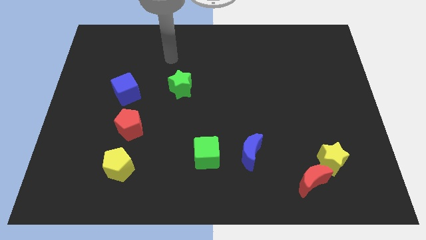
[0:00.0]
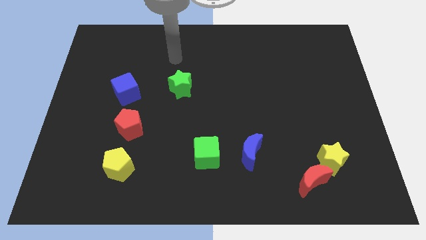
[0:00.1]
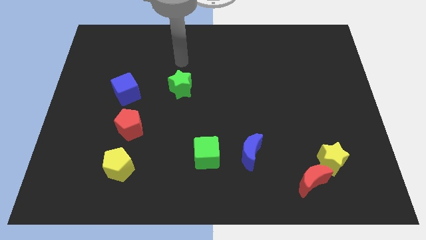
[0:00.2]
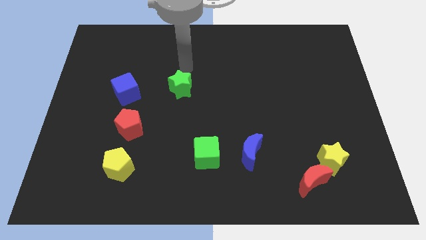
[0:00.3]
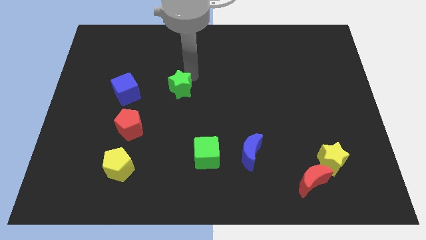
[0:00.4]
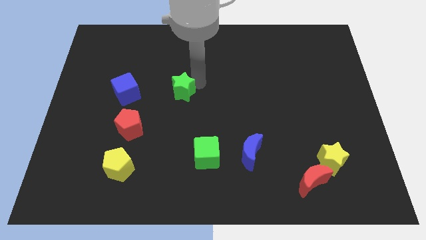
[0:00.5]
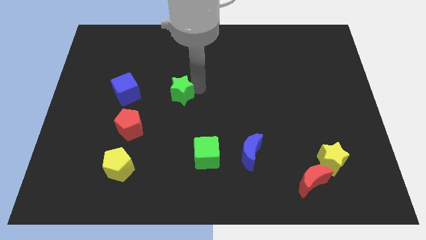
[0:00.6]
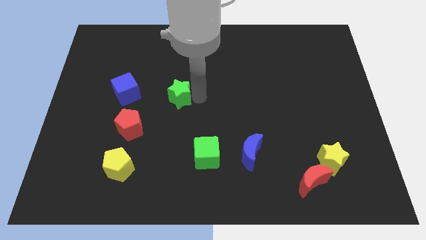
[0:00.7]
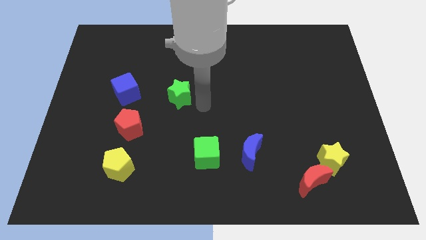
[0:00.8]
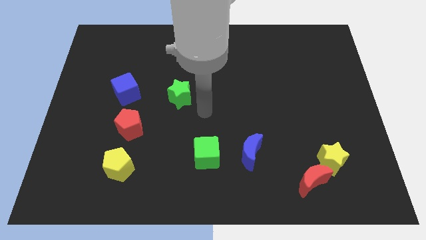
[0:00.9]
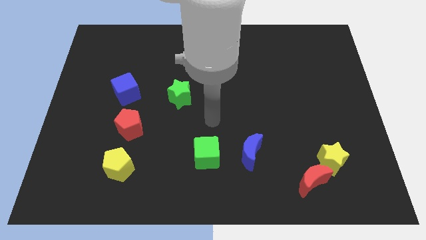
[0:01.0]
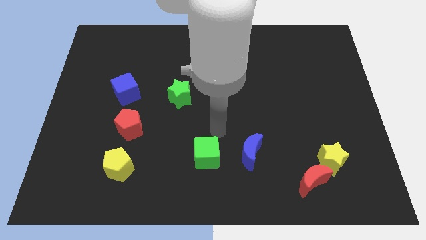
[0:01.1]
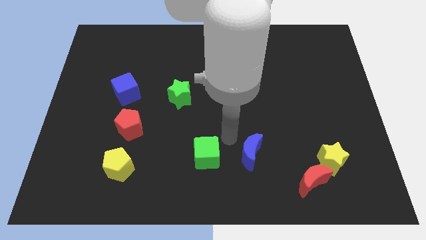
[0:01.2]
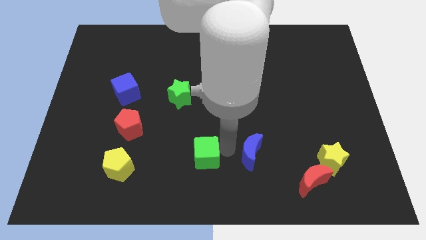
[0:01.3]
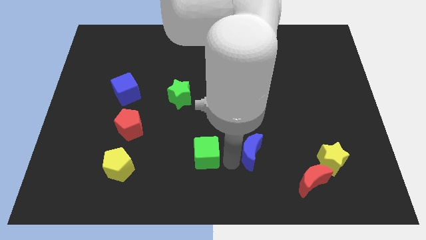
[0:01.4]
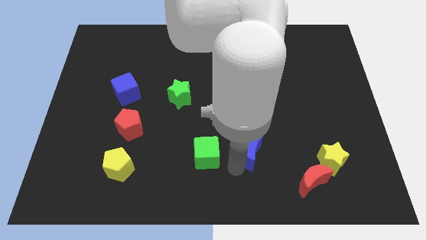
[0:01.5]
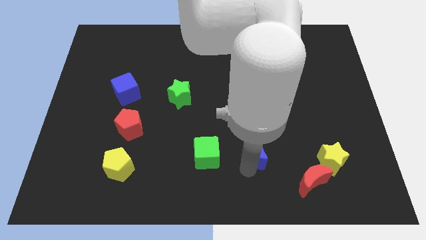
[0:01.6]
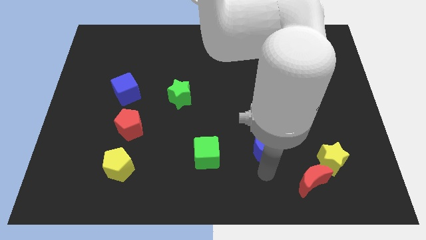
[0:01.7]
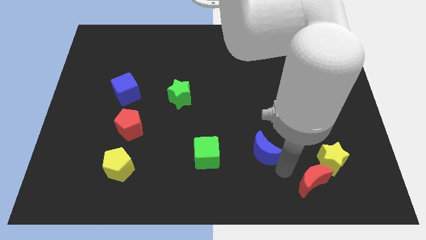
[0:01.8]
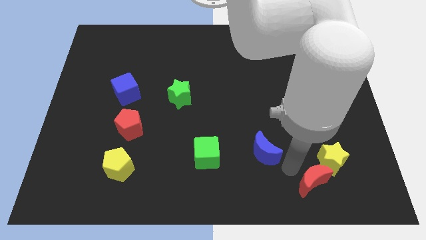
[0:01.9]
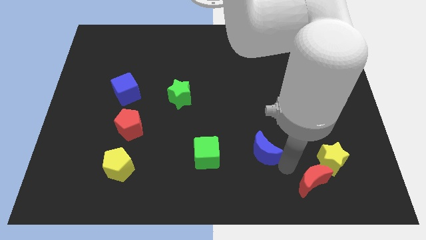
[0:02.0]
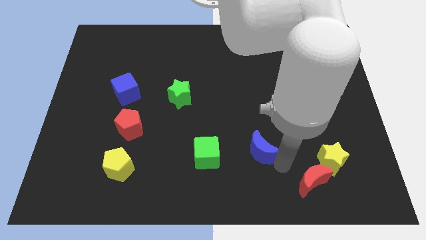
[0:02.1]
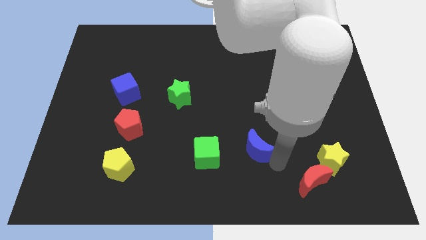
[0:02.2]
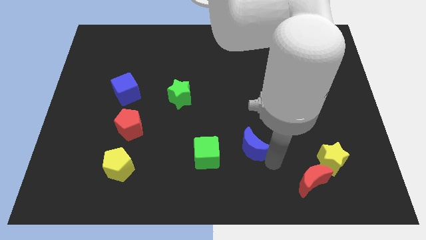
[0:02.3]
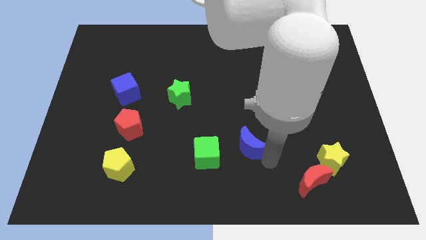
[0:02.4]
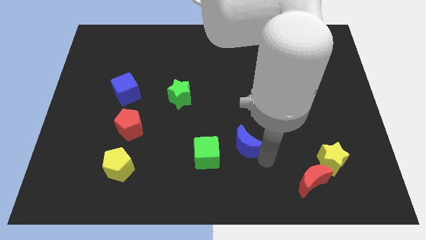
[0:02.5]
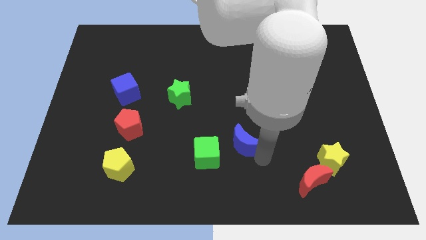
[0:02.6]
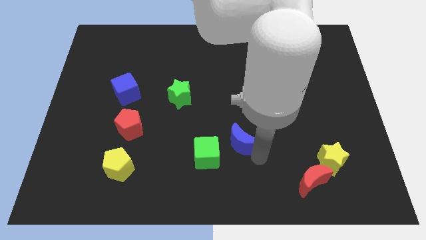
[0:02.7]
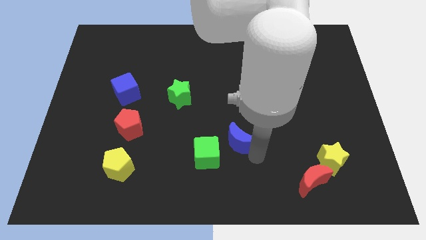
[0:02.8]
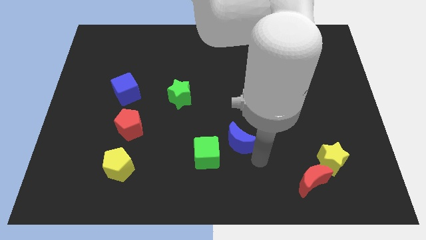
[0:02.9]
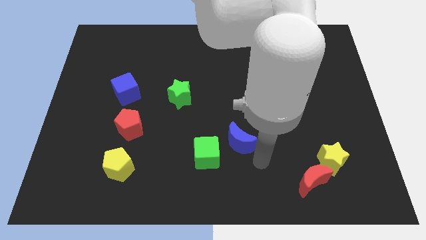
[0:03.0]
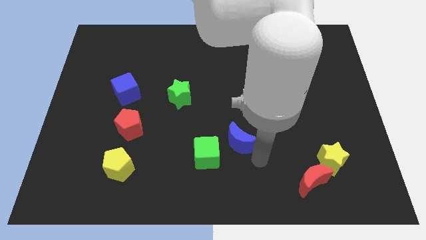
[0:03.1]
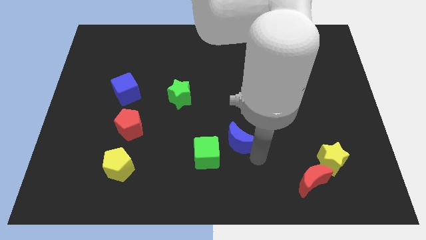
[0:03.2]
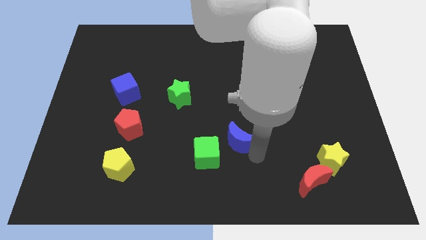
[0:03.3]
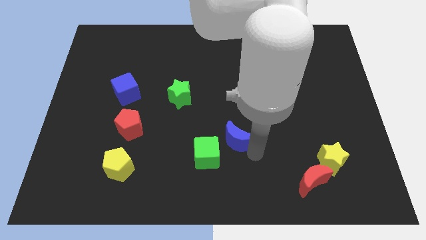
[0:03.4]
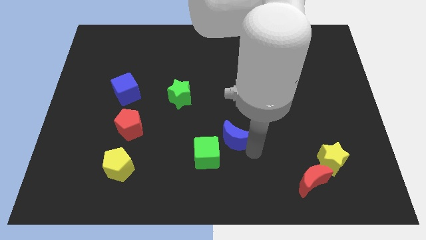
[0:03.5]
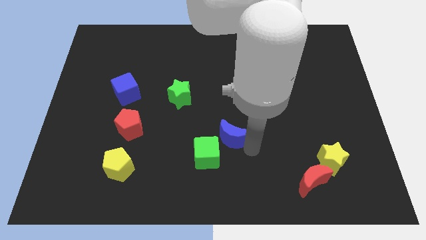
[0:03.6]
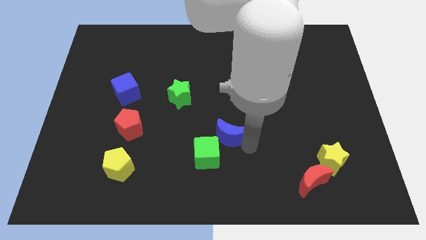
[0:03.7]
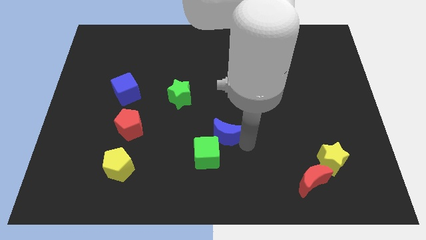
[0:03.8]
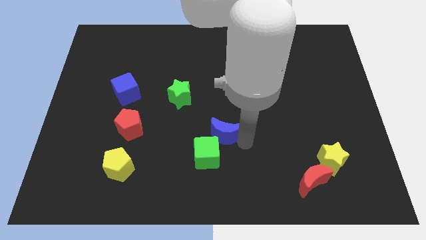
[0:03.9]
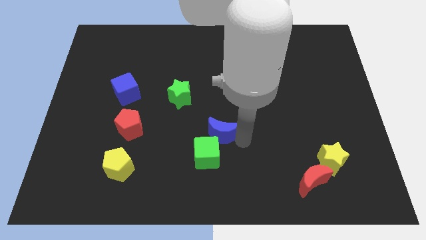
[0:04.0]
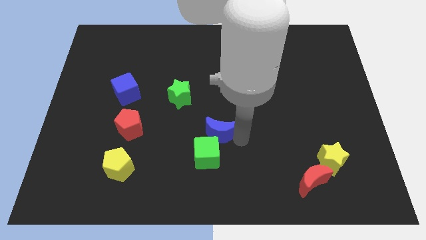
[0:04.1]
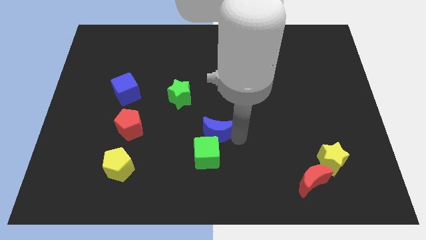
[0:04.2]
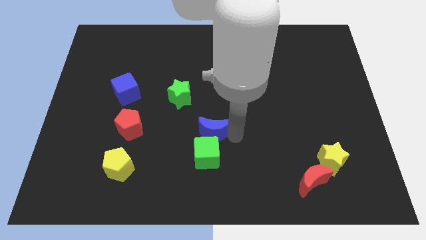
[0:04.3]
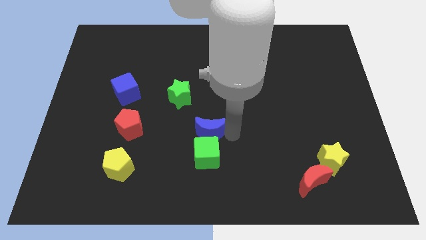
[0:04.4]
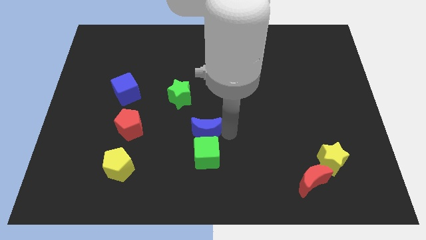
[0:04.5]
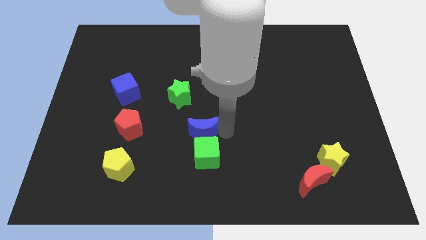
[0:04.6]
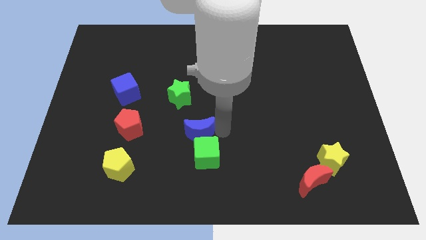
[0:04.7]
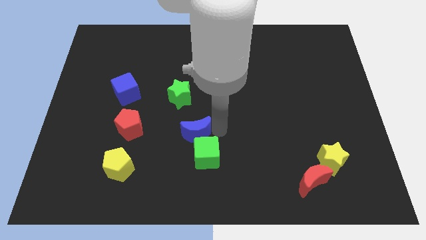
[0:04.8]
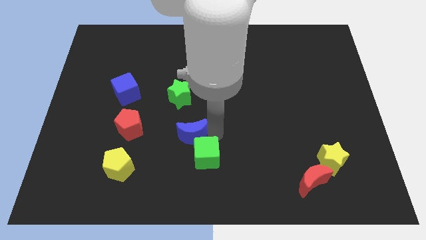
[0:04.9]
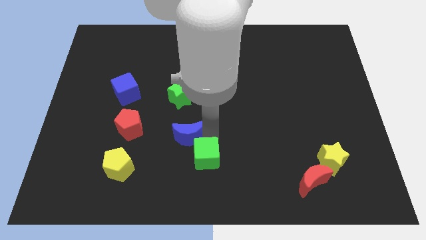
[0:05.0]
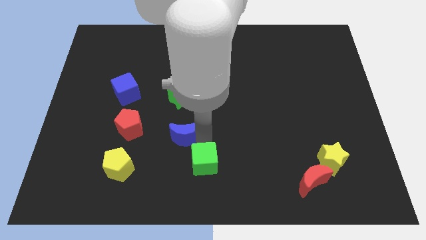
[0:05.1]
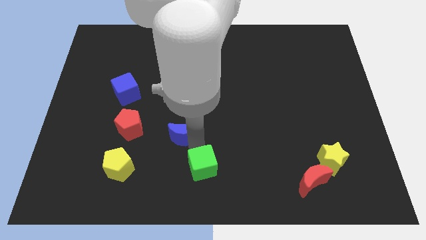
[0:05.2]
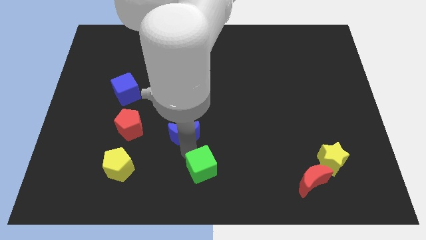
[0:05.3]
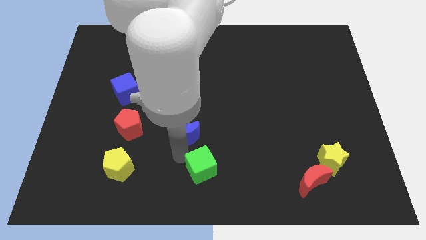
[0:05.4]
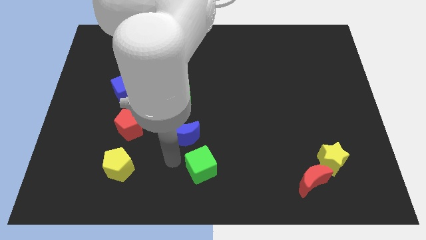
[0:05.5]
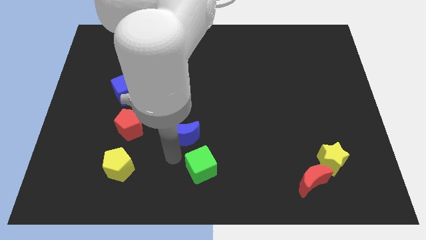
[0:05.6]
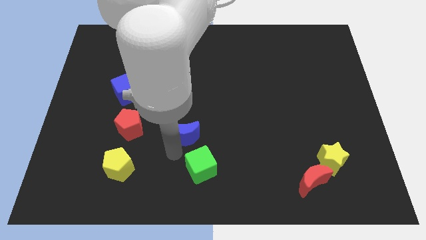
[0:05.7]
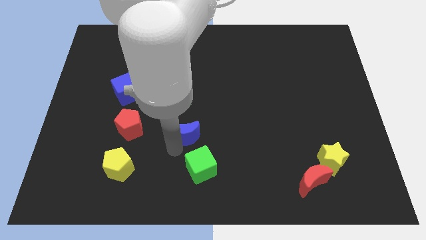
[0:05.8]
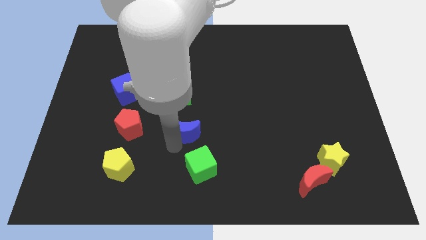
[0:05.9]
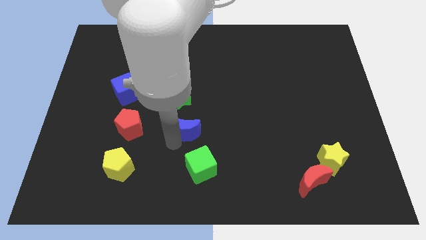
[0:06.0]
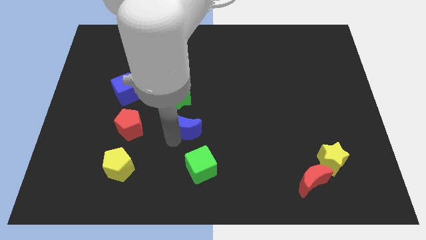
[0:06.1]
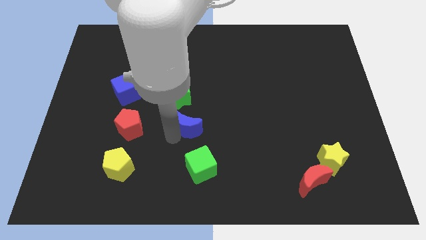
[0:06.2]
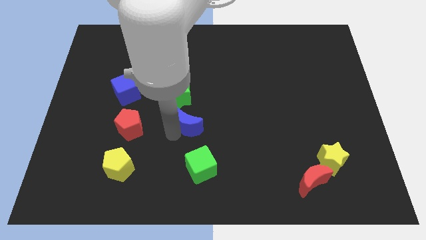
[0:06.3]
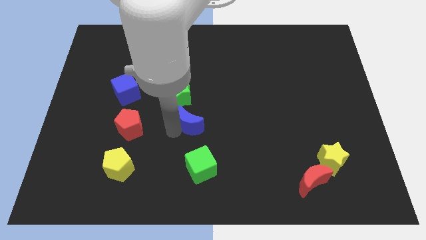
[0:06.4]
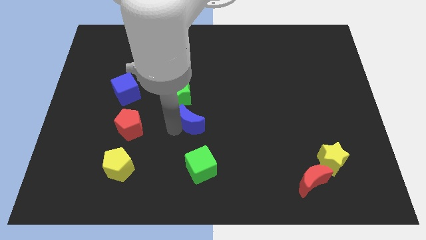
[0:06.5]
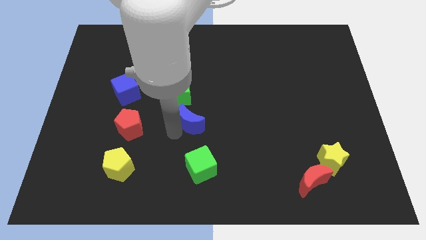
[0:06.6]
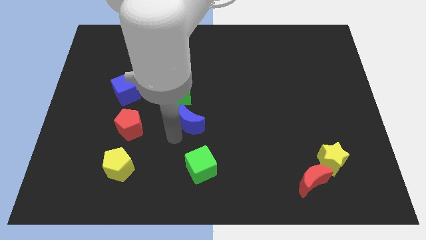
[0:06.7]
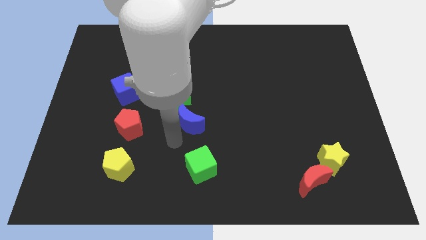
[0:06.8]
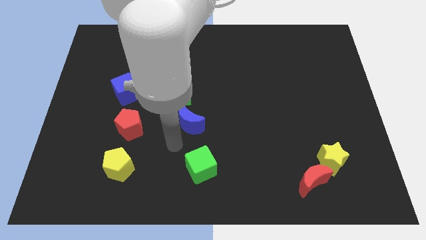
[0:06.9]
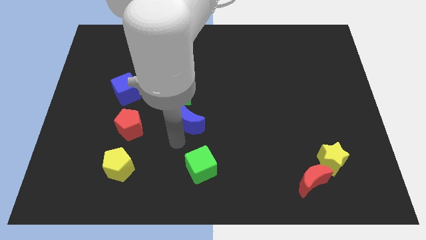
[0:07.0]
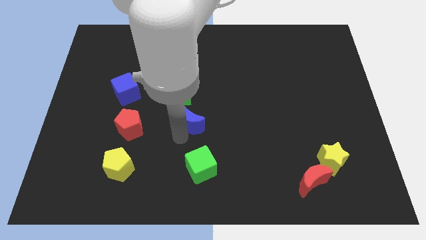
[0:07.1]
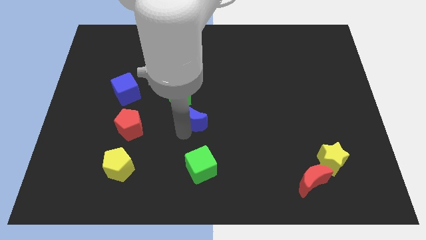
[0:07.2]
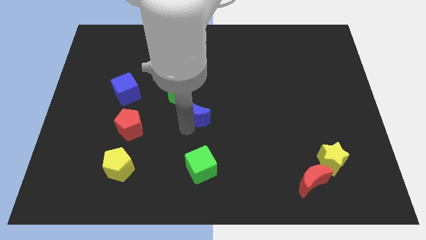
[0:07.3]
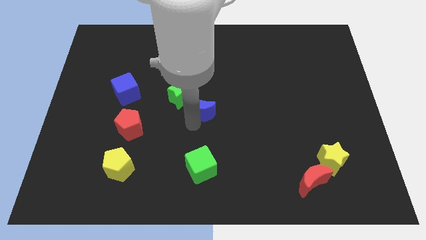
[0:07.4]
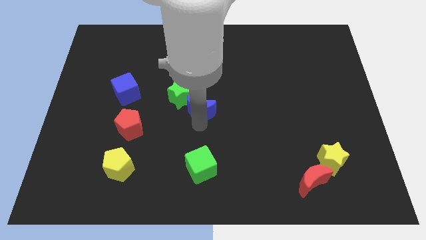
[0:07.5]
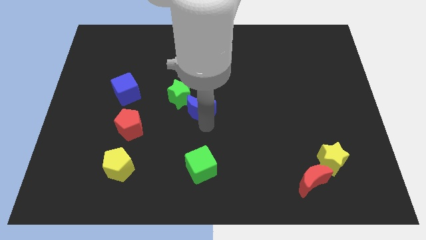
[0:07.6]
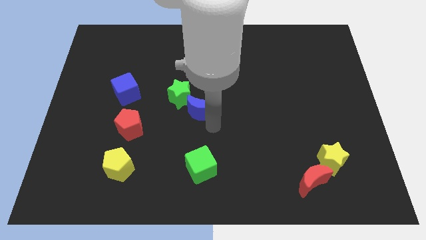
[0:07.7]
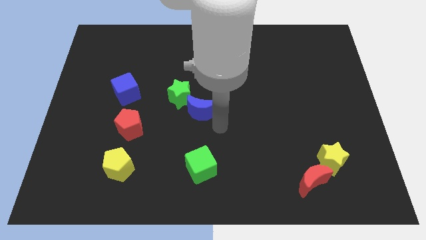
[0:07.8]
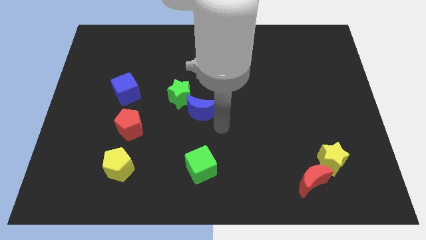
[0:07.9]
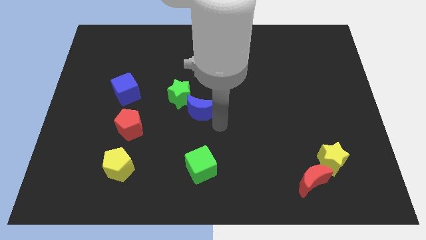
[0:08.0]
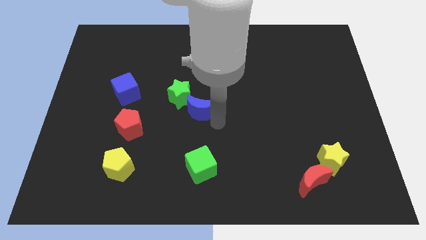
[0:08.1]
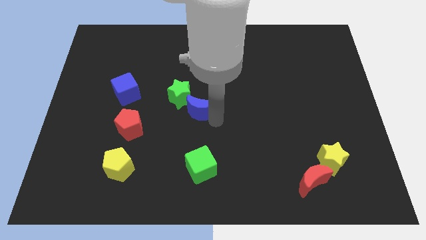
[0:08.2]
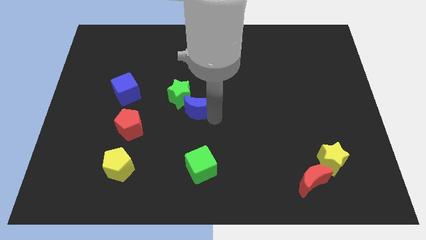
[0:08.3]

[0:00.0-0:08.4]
push the blue moon next to the green star
